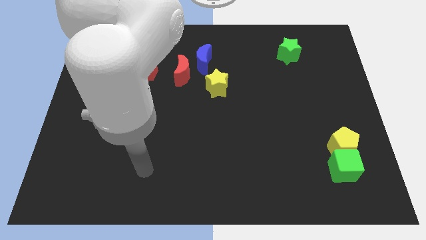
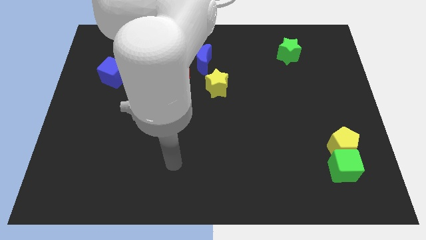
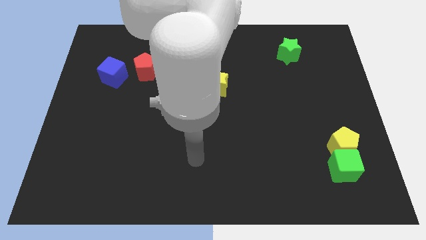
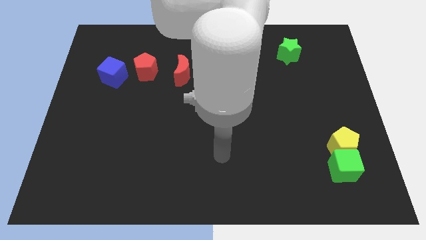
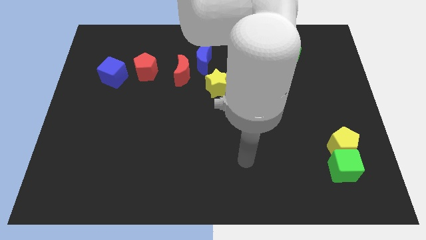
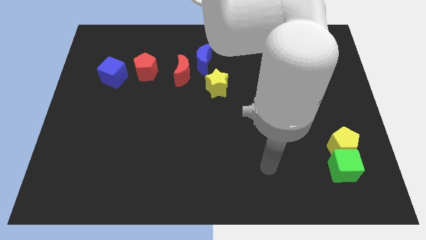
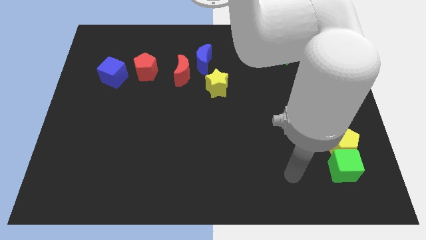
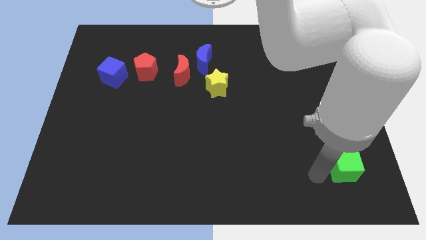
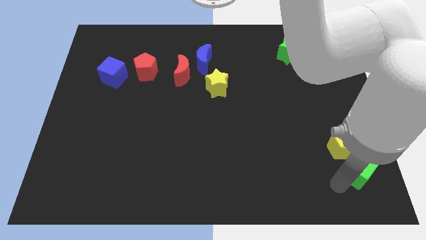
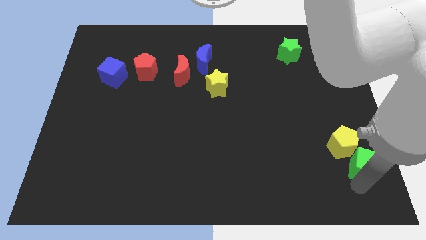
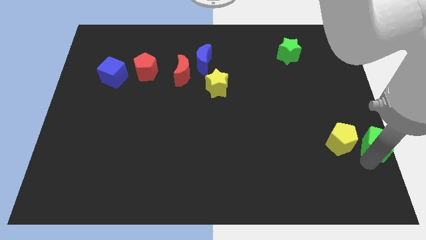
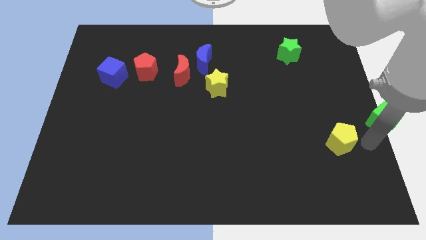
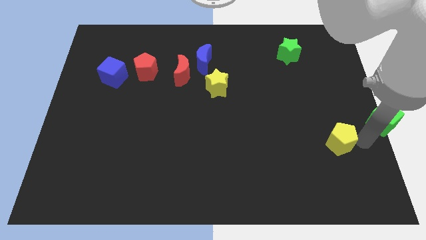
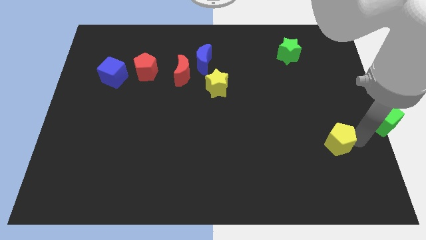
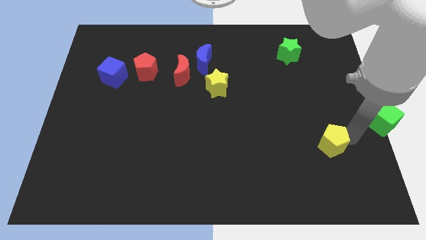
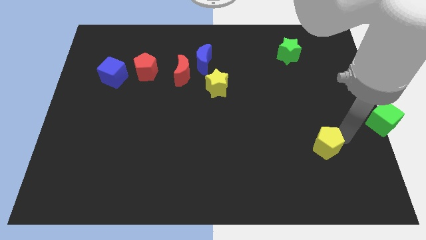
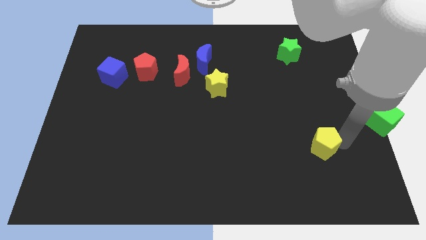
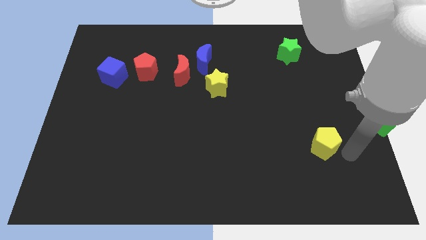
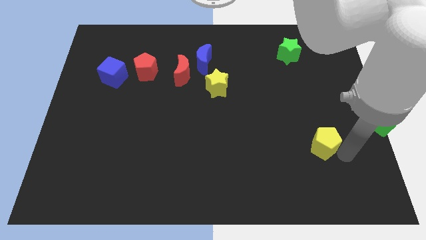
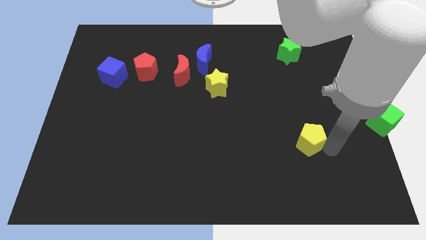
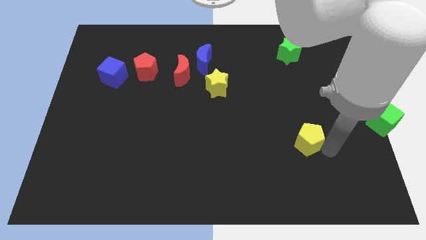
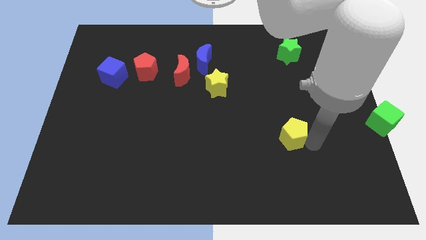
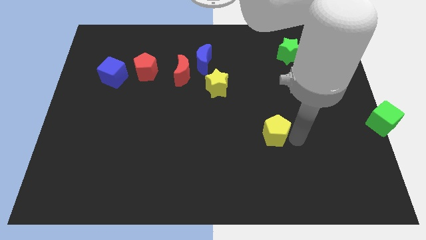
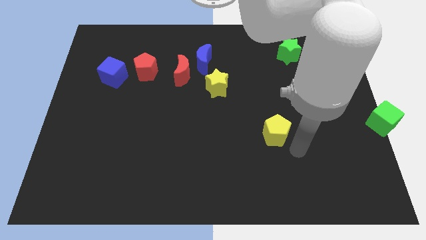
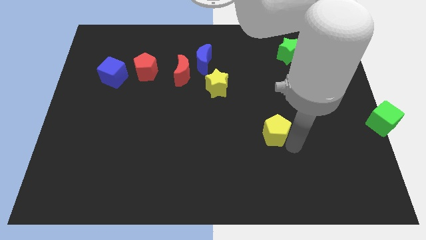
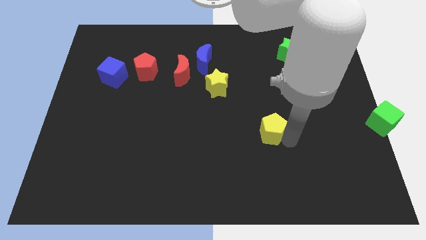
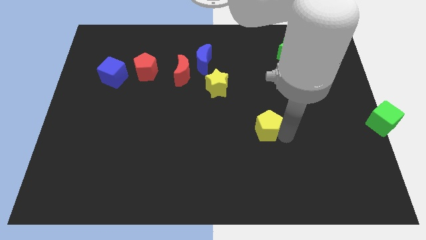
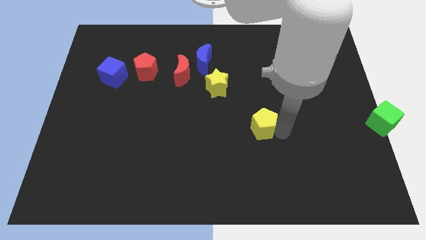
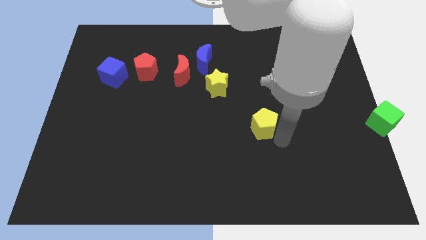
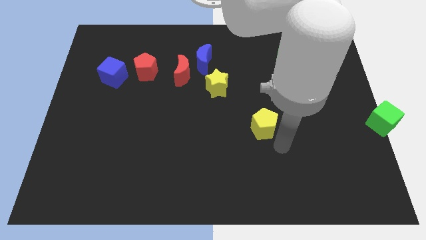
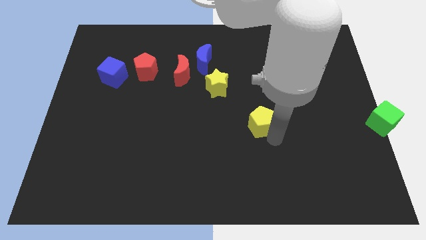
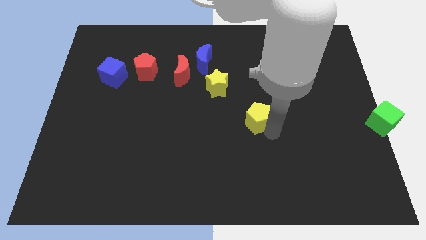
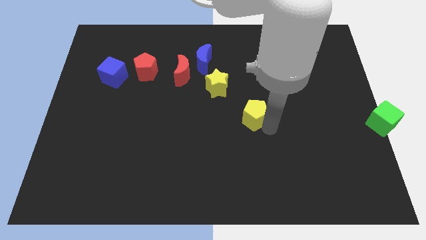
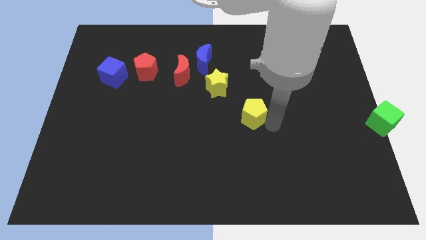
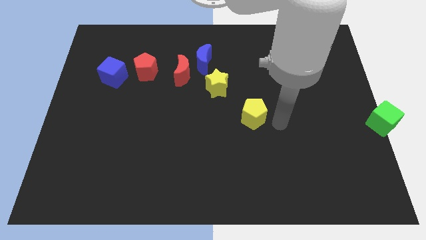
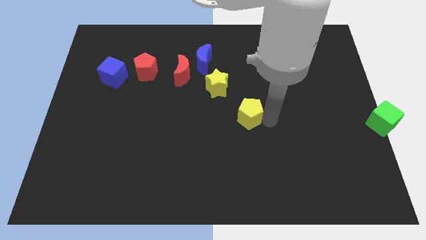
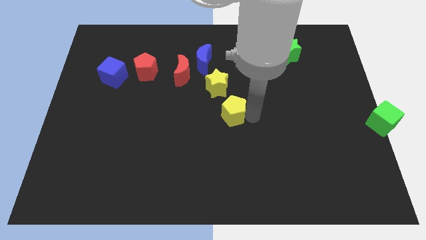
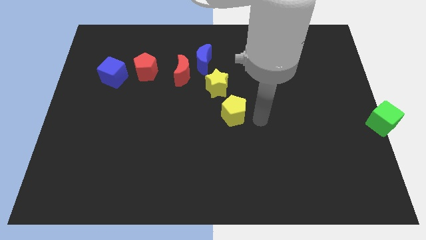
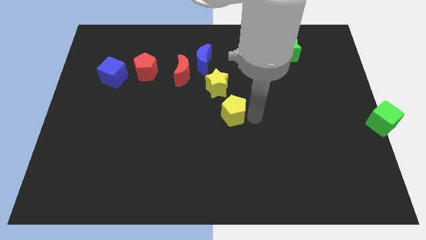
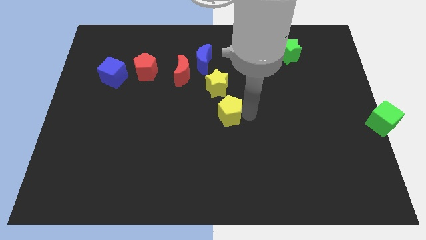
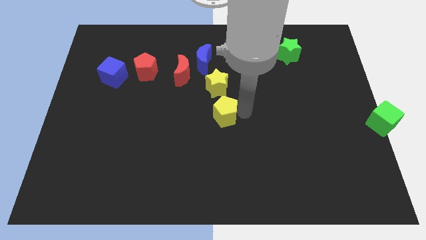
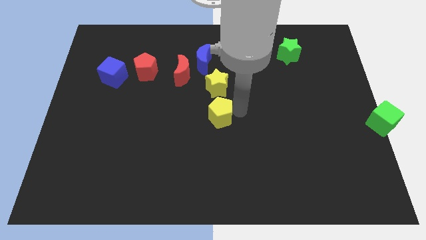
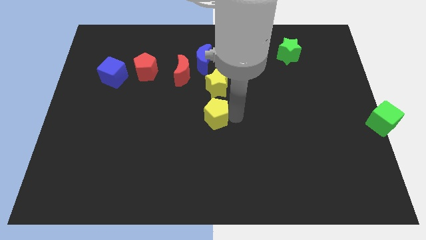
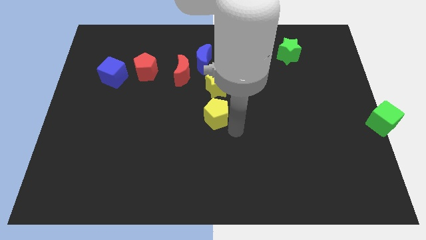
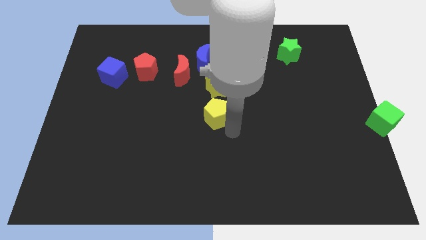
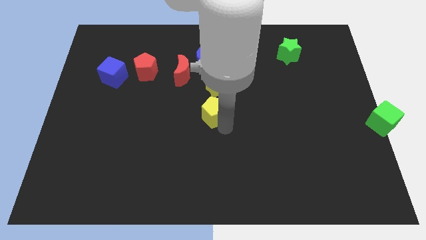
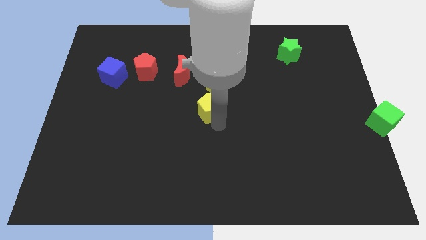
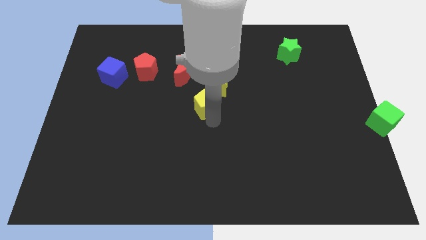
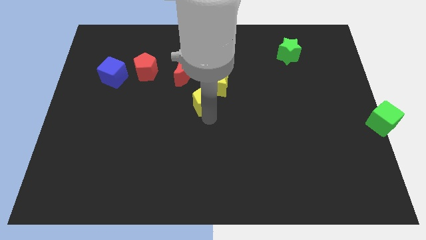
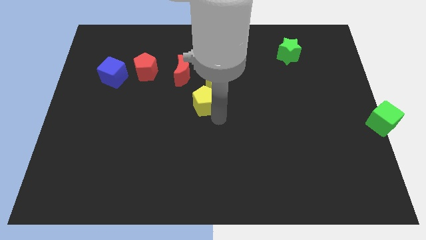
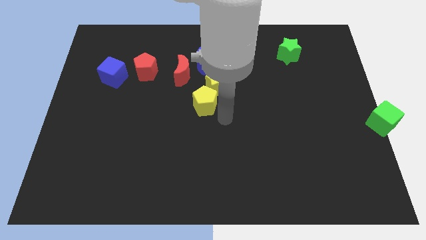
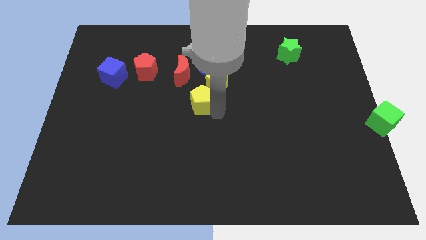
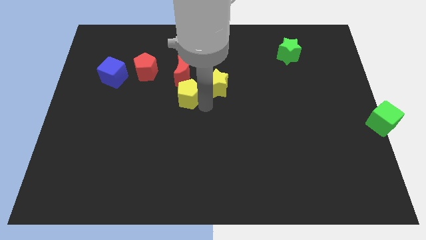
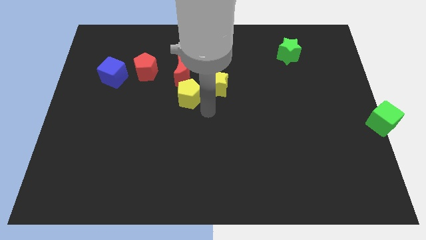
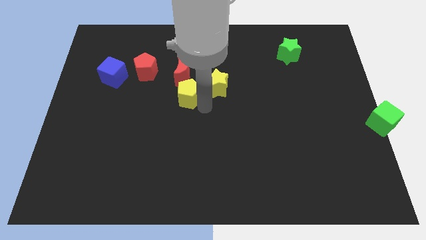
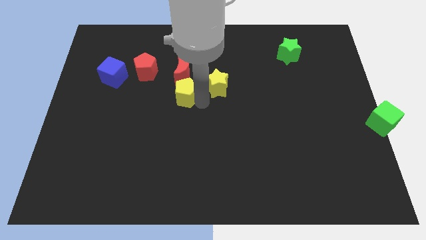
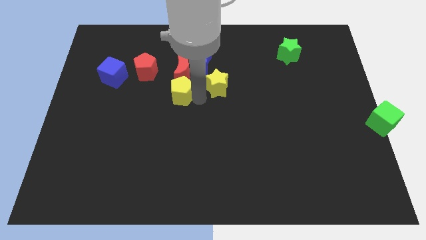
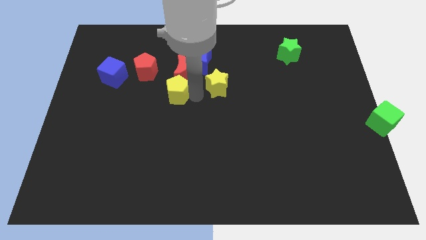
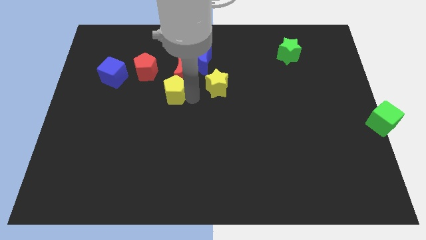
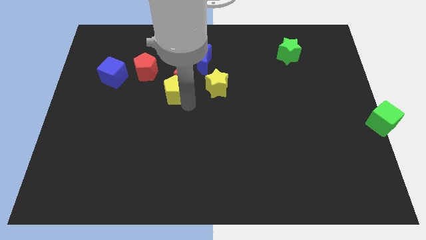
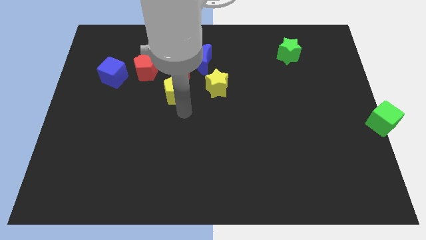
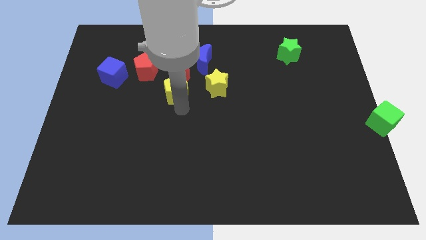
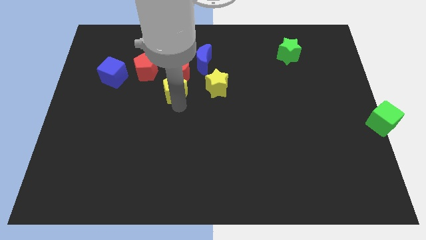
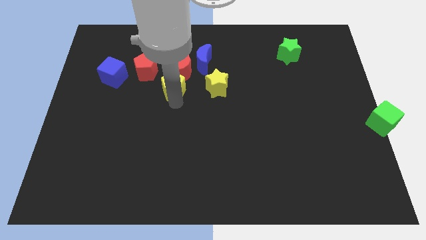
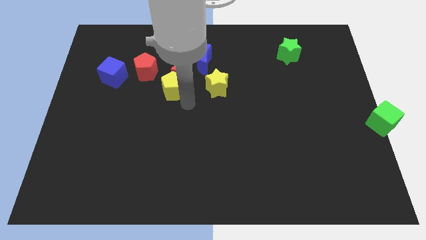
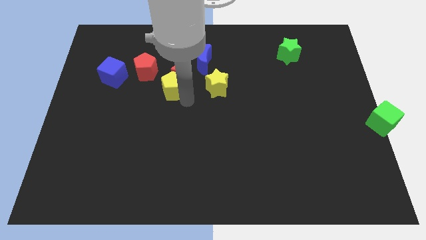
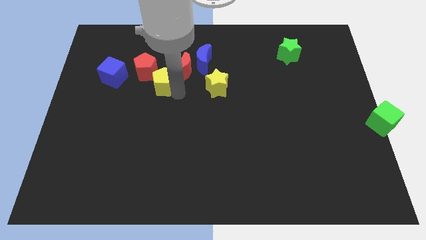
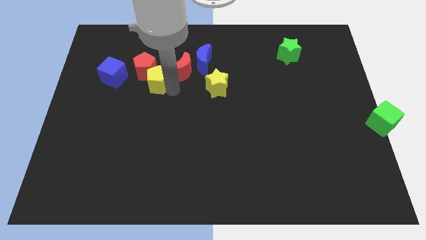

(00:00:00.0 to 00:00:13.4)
move the yellow pentagon close to the red pentagon

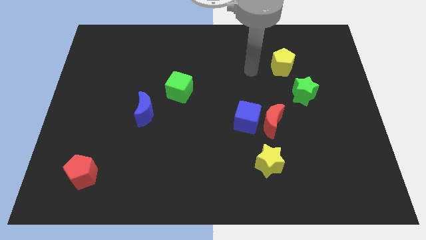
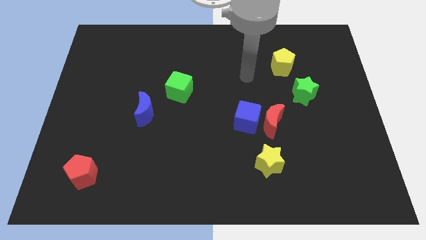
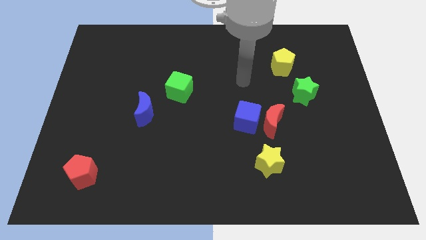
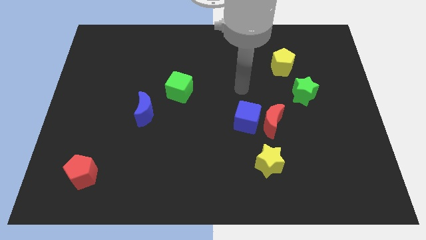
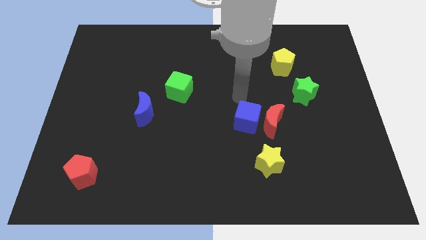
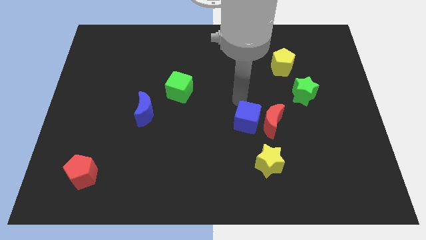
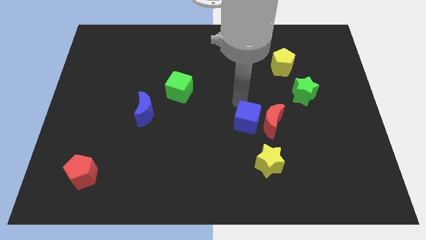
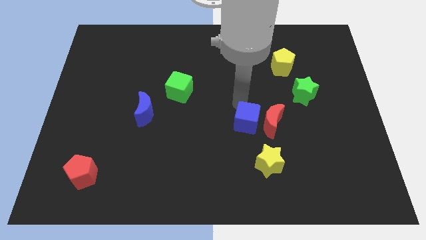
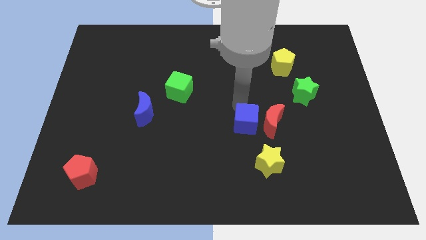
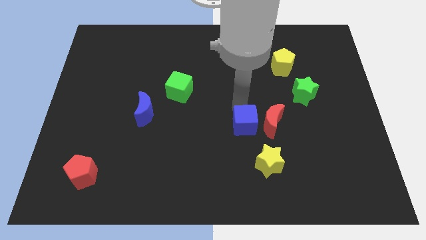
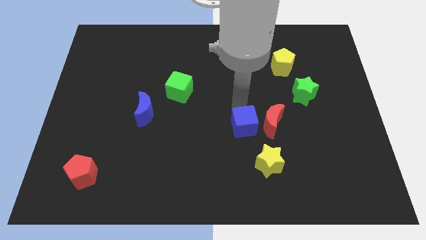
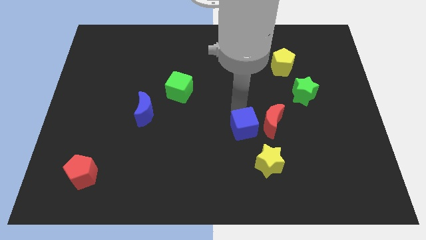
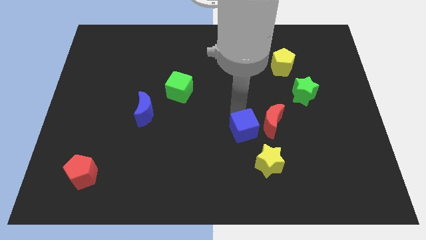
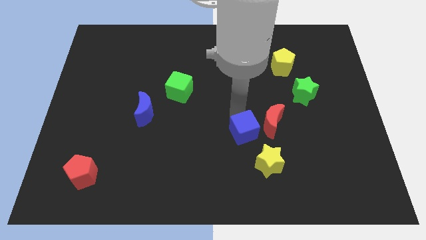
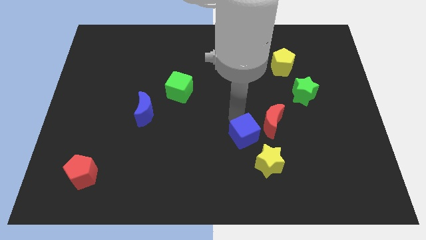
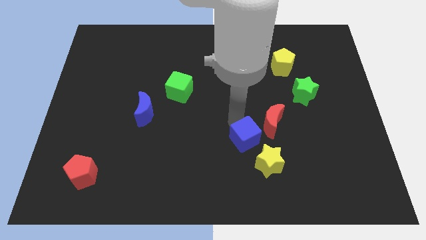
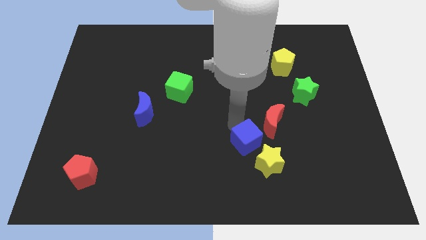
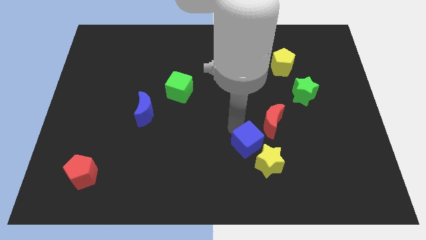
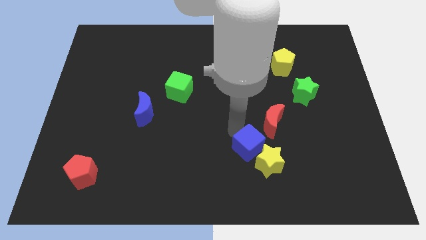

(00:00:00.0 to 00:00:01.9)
push the blue cube towards the yellow star
